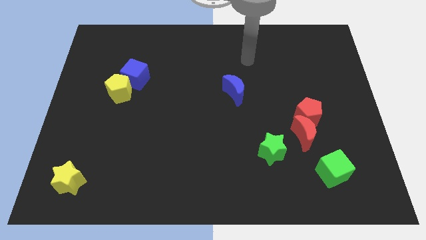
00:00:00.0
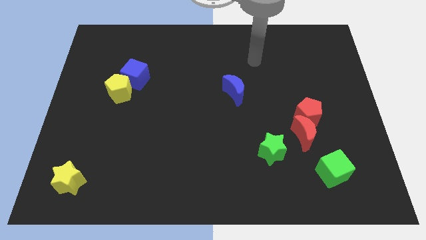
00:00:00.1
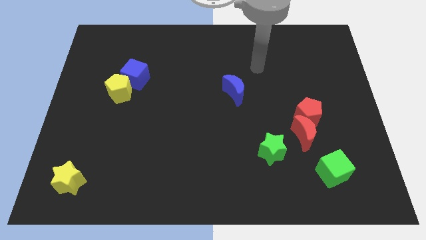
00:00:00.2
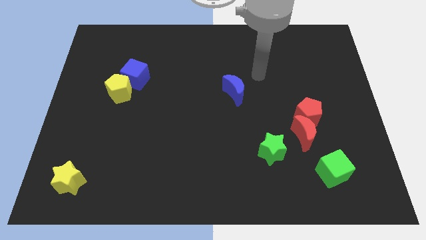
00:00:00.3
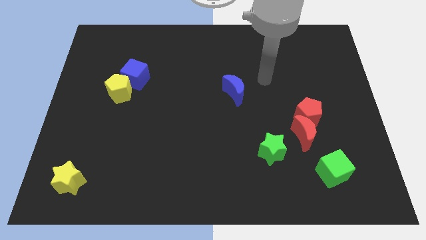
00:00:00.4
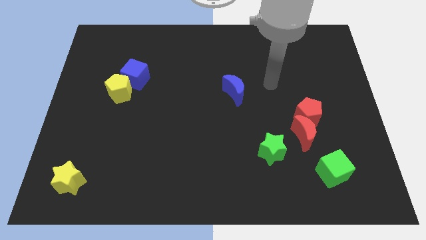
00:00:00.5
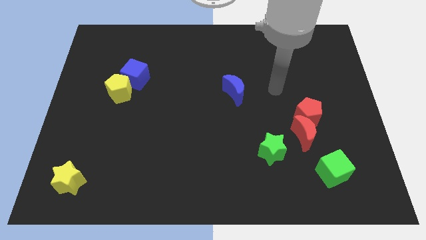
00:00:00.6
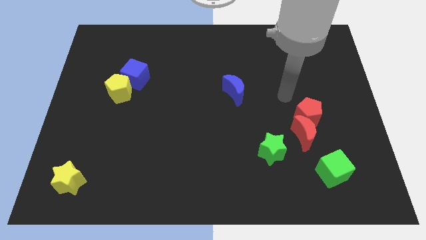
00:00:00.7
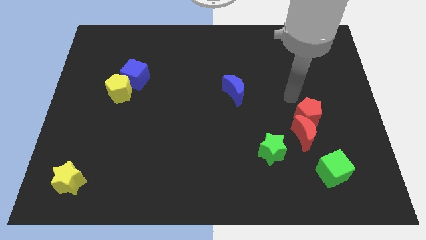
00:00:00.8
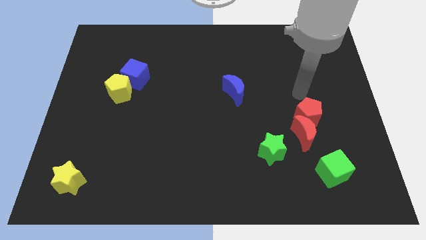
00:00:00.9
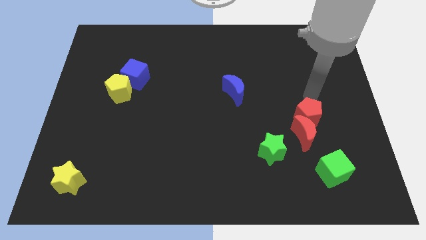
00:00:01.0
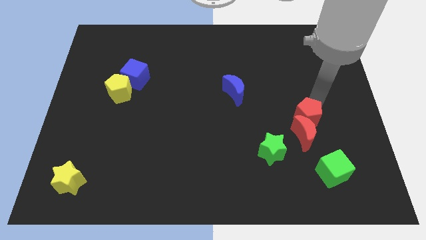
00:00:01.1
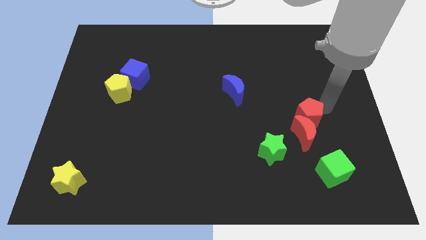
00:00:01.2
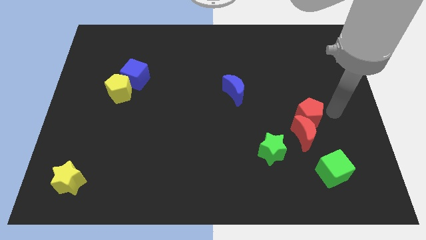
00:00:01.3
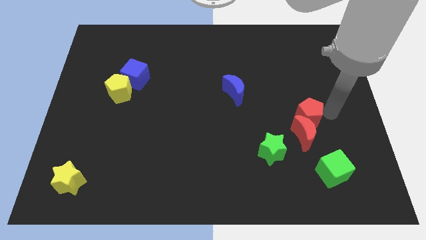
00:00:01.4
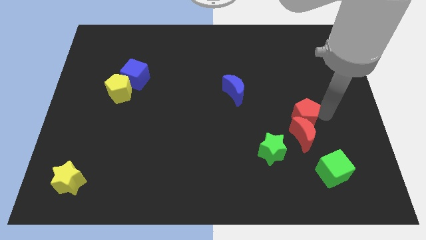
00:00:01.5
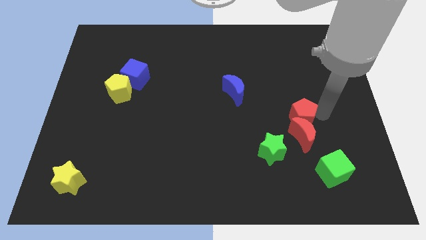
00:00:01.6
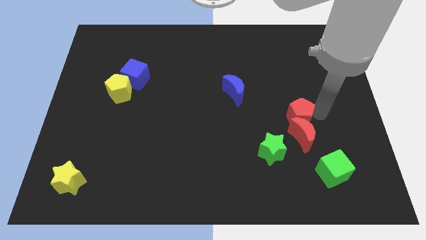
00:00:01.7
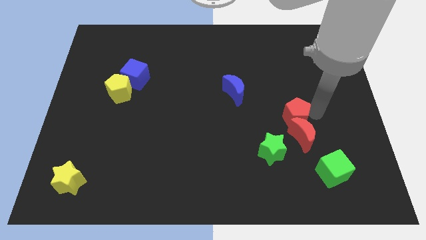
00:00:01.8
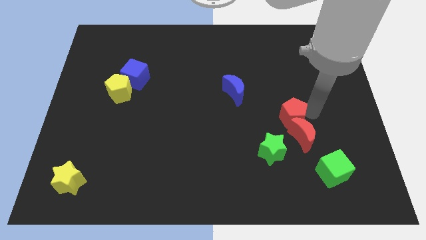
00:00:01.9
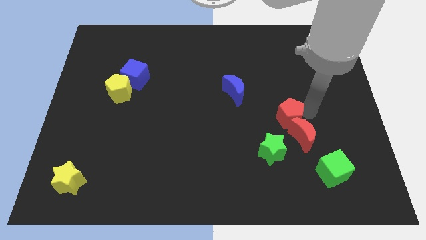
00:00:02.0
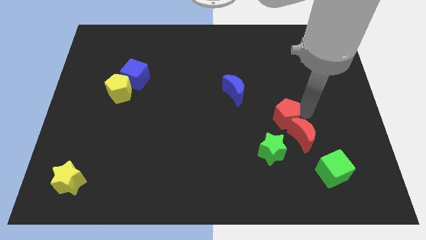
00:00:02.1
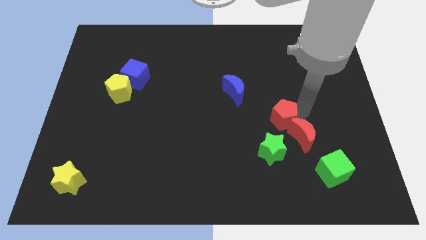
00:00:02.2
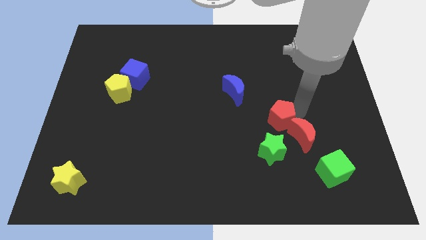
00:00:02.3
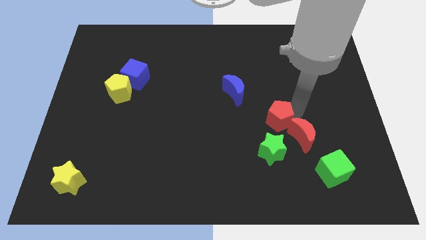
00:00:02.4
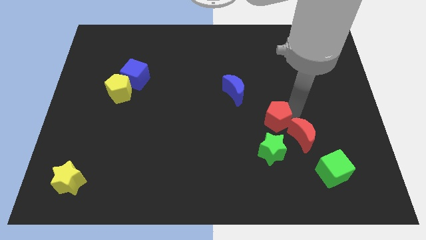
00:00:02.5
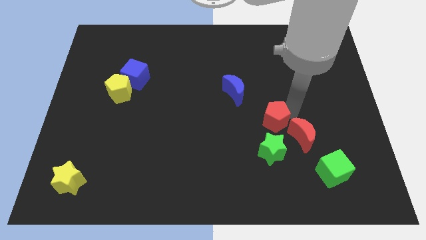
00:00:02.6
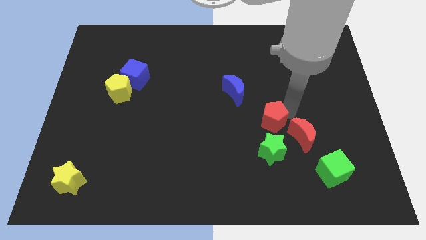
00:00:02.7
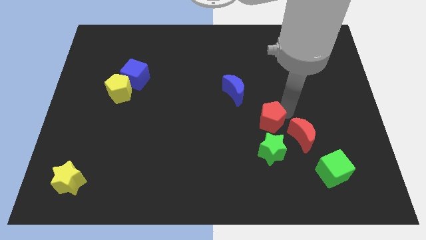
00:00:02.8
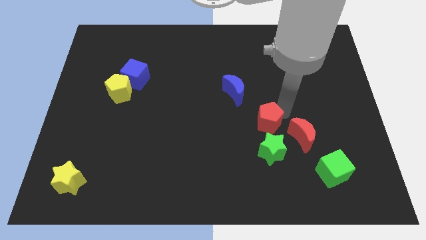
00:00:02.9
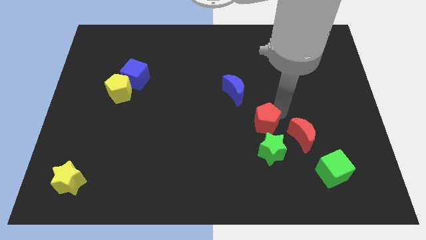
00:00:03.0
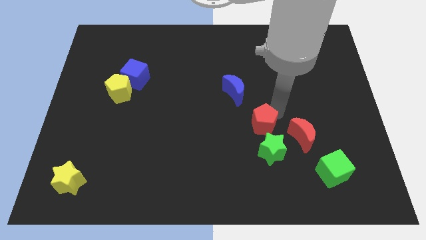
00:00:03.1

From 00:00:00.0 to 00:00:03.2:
slide the red pentagon diagonally down and to the left a little bit

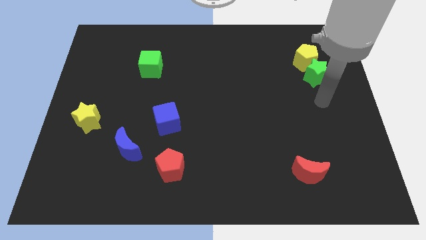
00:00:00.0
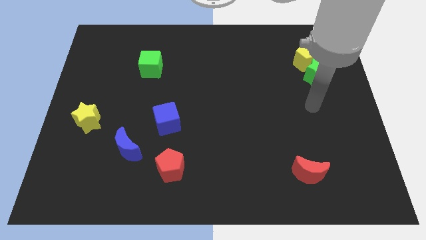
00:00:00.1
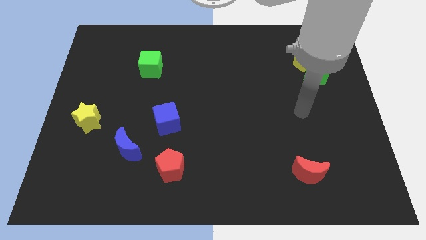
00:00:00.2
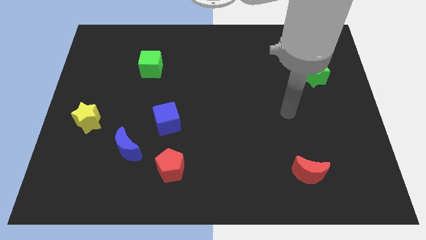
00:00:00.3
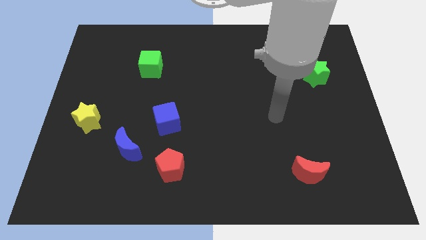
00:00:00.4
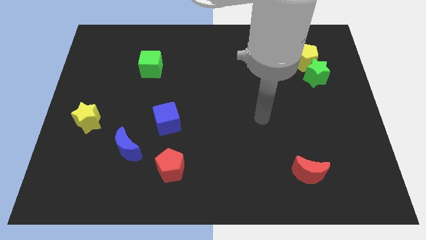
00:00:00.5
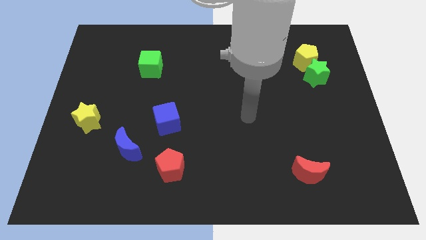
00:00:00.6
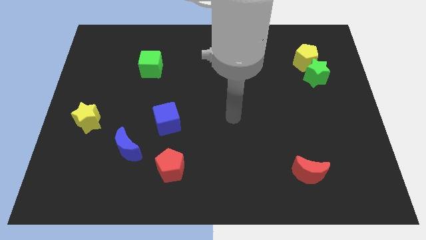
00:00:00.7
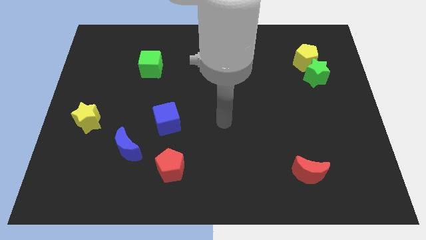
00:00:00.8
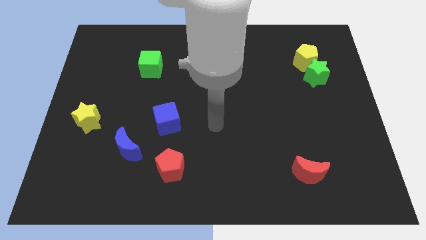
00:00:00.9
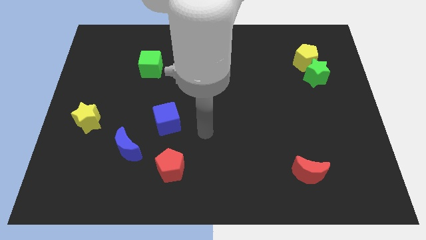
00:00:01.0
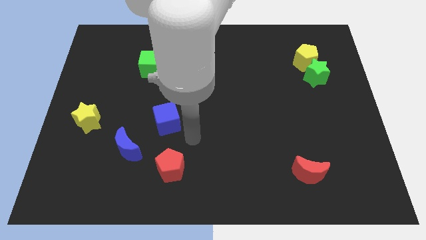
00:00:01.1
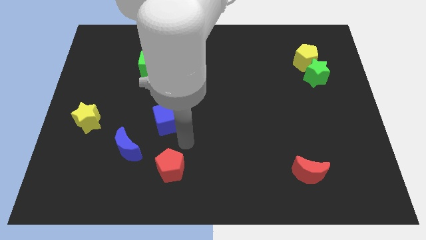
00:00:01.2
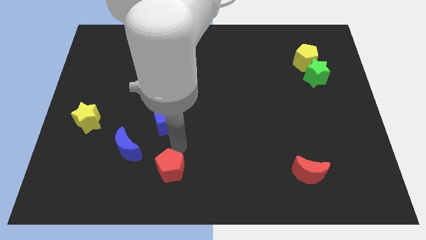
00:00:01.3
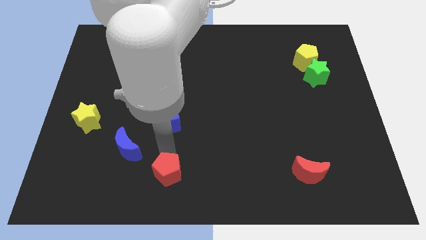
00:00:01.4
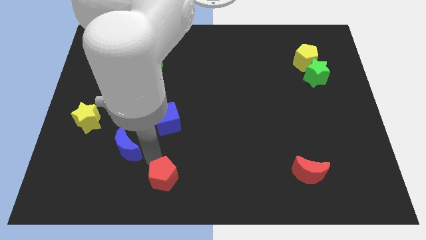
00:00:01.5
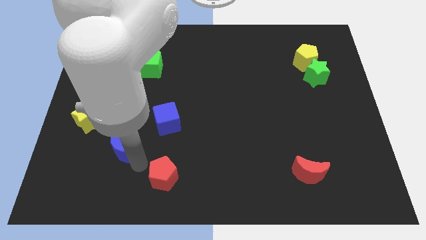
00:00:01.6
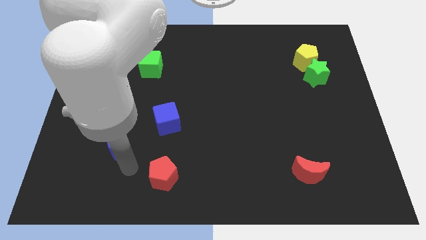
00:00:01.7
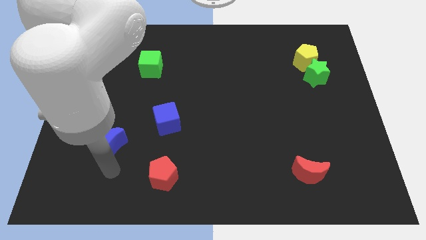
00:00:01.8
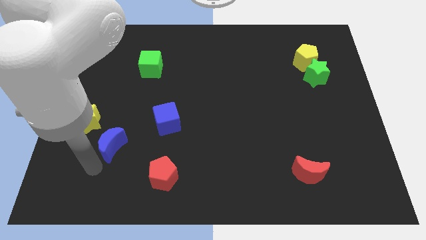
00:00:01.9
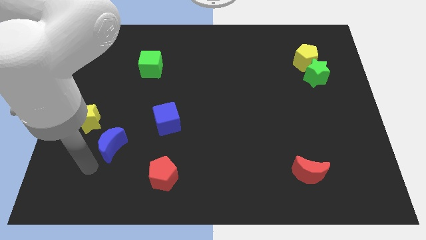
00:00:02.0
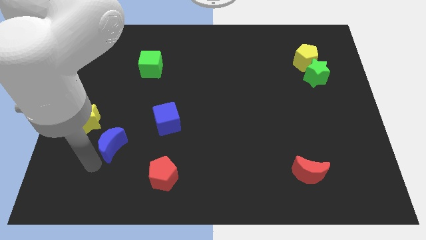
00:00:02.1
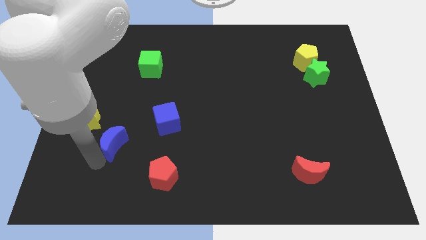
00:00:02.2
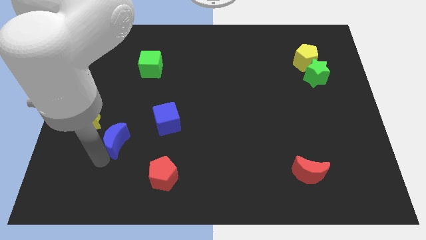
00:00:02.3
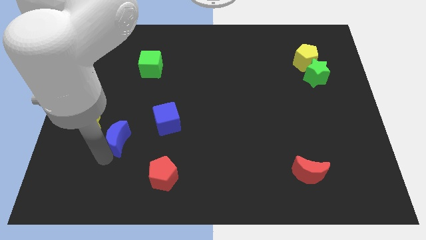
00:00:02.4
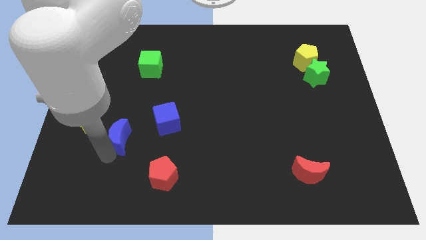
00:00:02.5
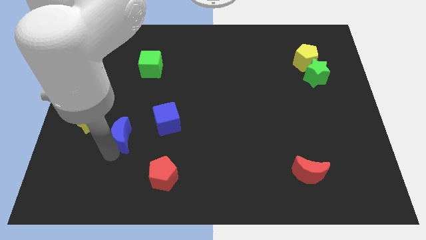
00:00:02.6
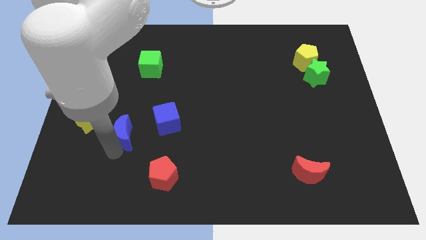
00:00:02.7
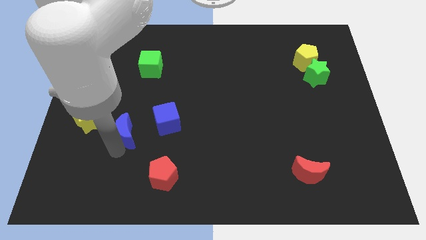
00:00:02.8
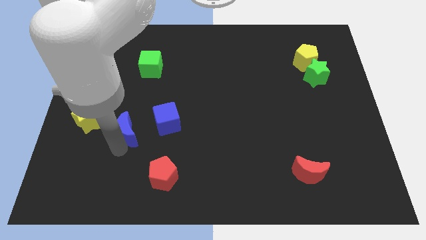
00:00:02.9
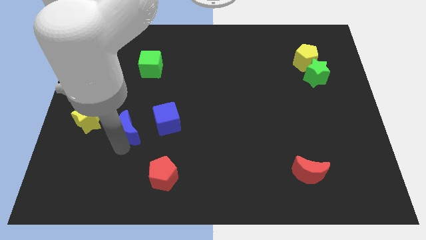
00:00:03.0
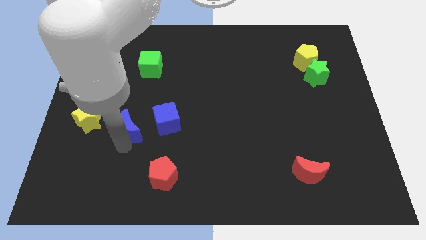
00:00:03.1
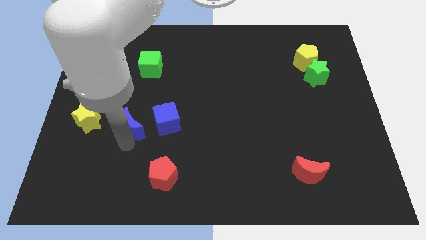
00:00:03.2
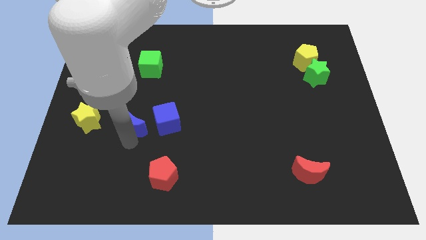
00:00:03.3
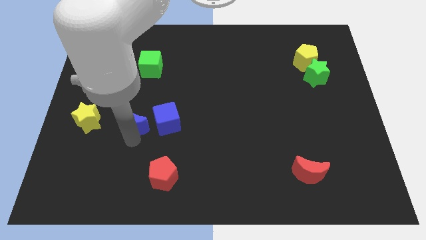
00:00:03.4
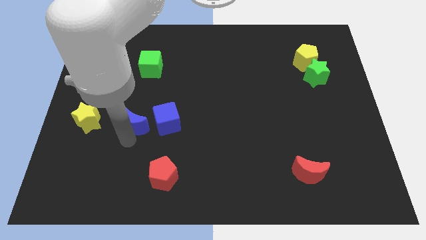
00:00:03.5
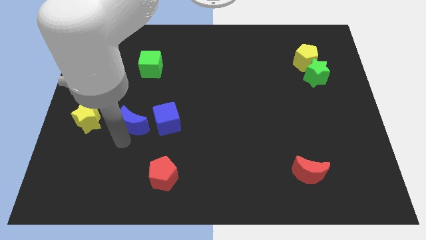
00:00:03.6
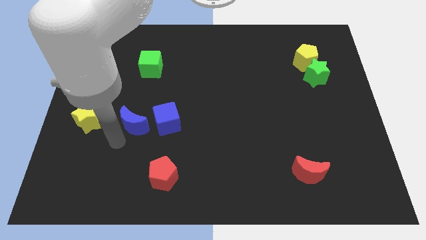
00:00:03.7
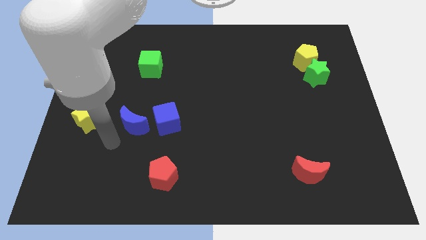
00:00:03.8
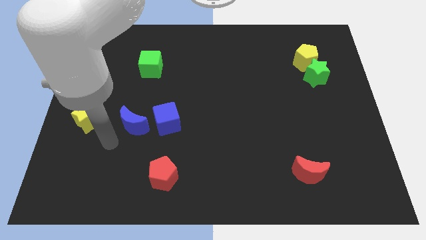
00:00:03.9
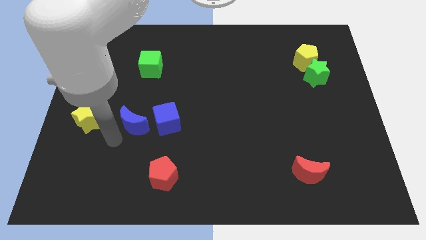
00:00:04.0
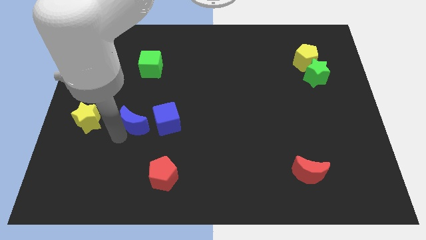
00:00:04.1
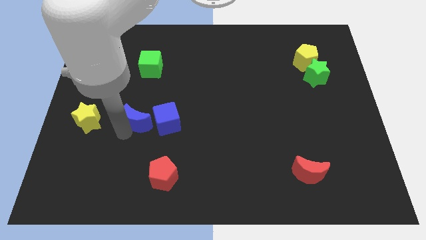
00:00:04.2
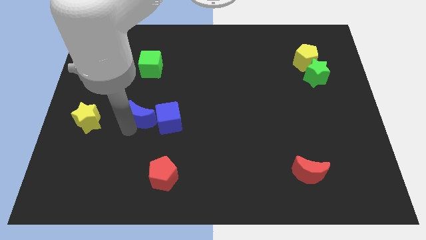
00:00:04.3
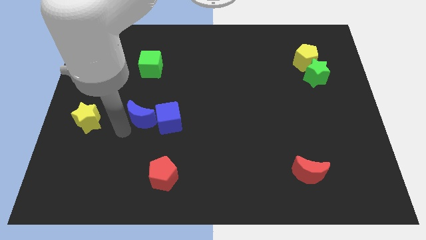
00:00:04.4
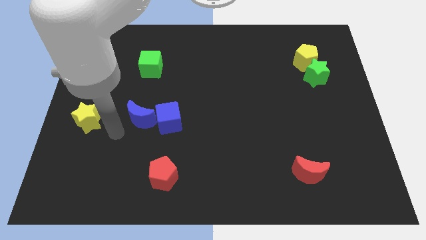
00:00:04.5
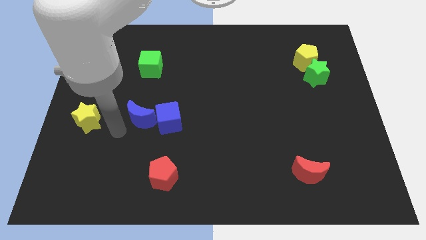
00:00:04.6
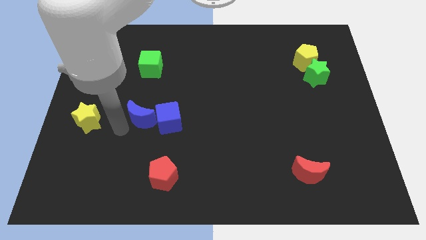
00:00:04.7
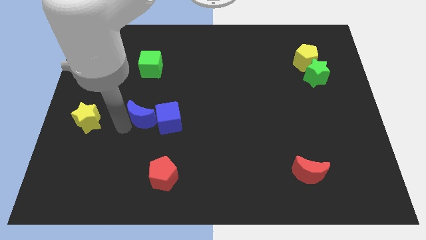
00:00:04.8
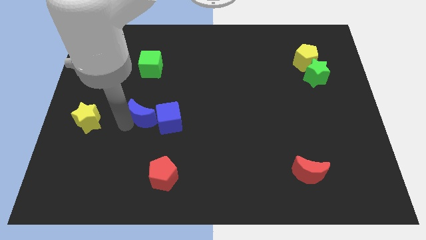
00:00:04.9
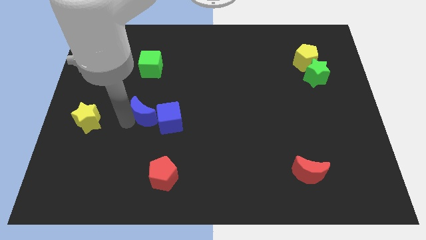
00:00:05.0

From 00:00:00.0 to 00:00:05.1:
slightly push the blue moon upwards and right
